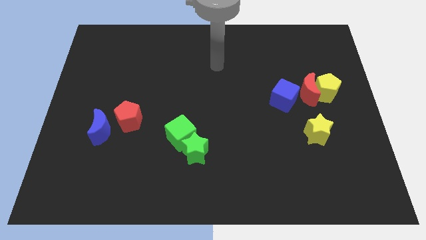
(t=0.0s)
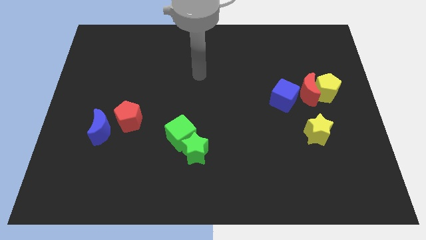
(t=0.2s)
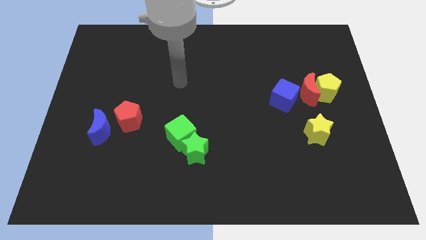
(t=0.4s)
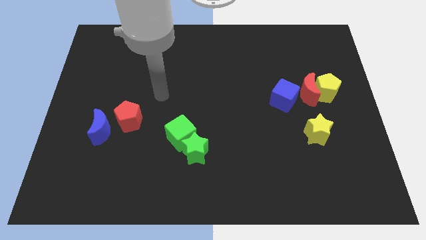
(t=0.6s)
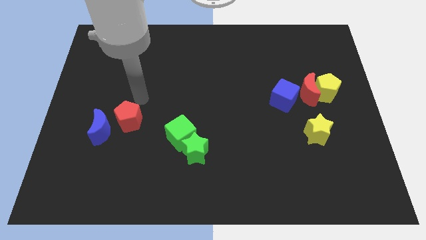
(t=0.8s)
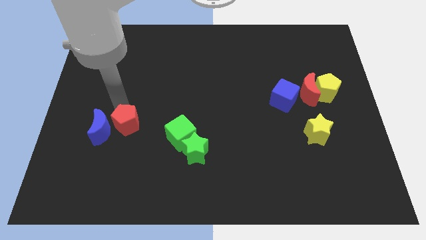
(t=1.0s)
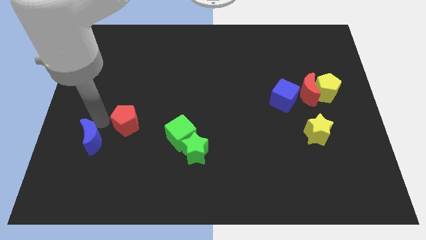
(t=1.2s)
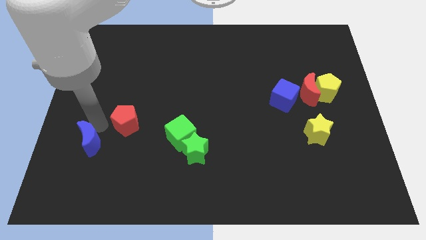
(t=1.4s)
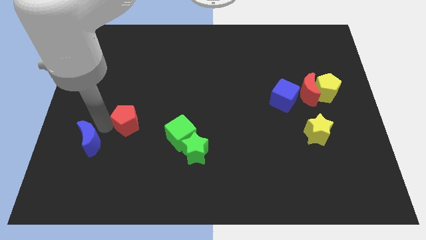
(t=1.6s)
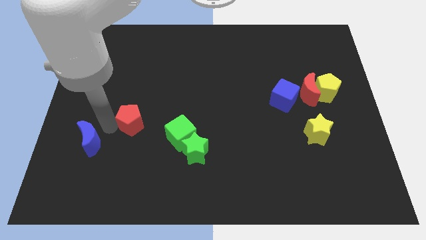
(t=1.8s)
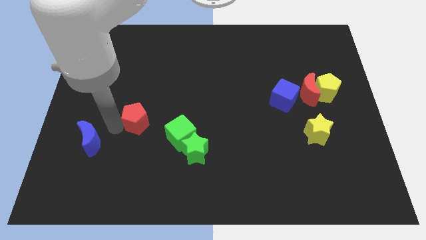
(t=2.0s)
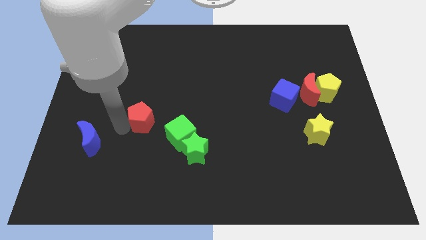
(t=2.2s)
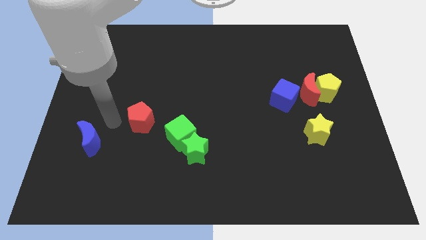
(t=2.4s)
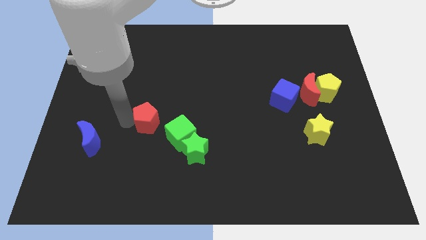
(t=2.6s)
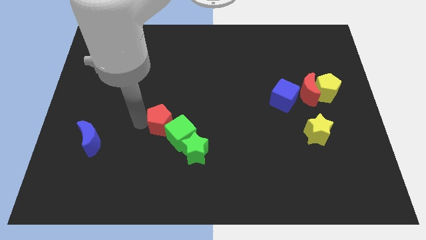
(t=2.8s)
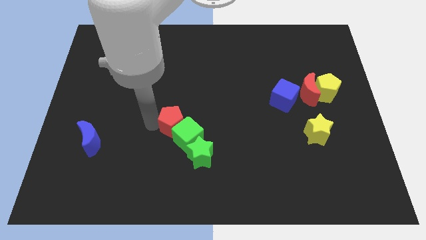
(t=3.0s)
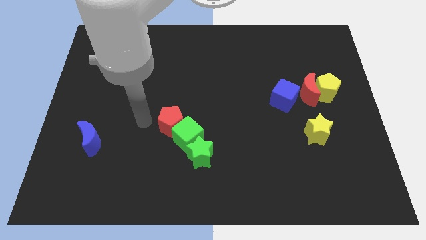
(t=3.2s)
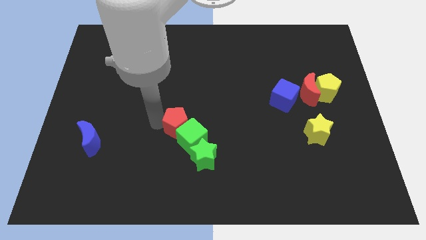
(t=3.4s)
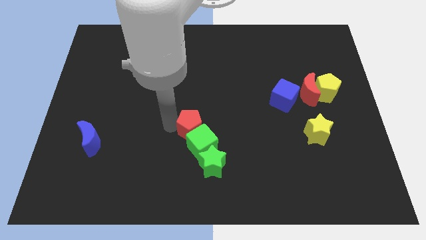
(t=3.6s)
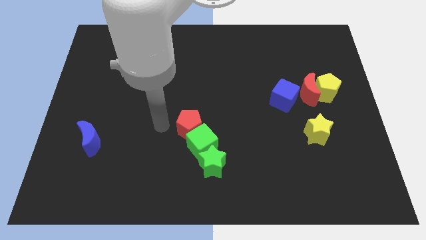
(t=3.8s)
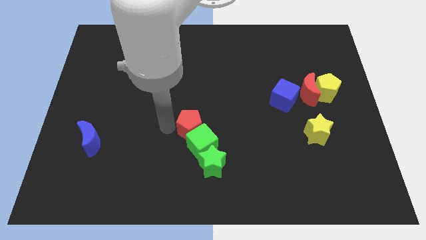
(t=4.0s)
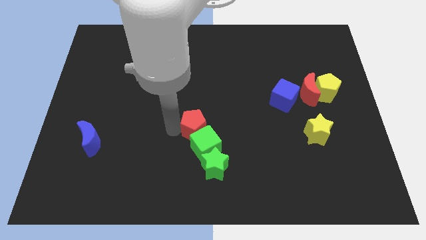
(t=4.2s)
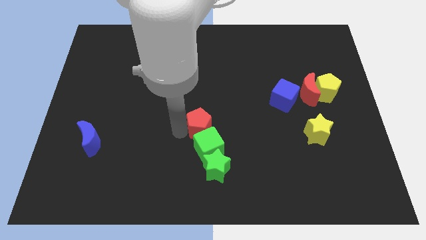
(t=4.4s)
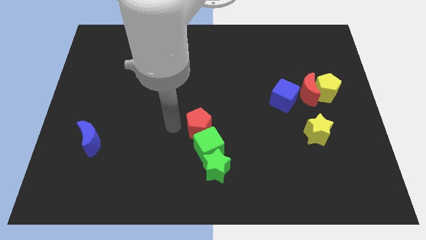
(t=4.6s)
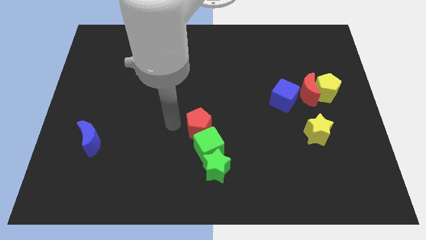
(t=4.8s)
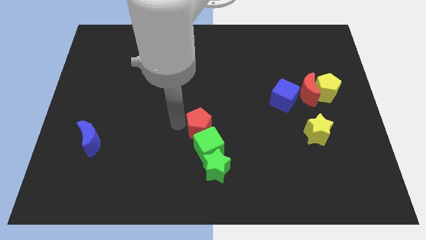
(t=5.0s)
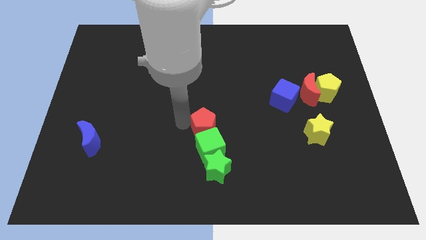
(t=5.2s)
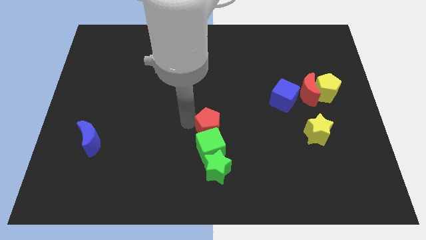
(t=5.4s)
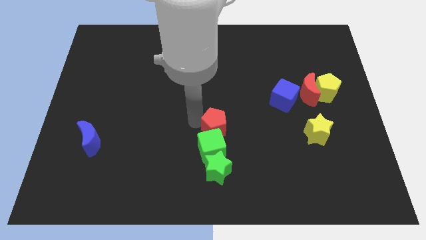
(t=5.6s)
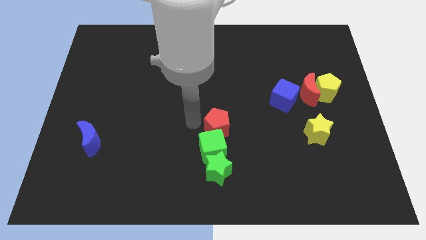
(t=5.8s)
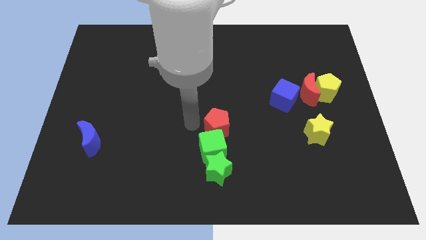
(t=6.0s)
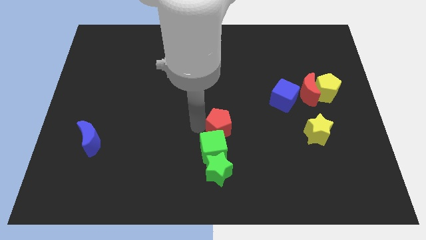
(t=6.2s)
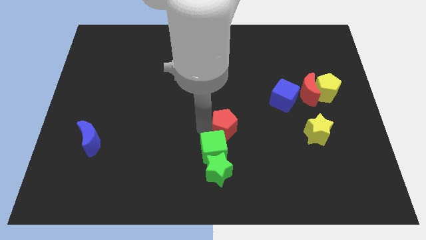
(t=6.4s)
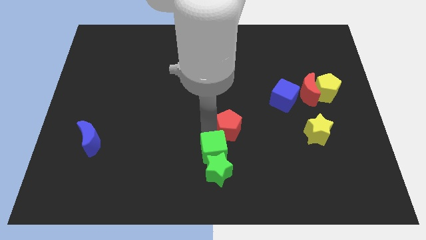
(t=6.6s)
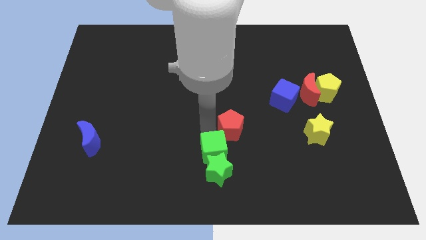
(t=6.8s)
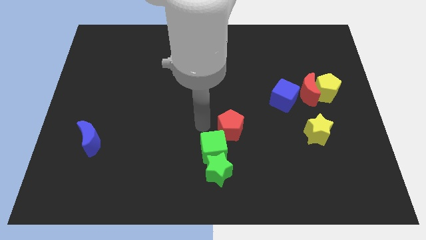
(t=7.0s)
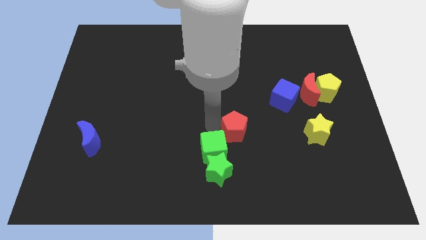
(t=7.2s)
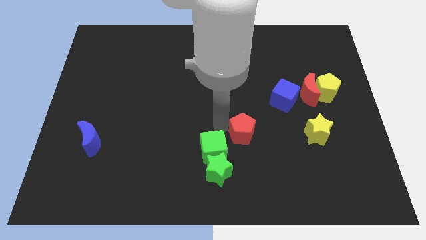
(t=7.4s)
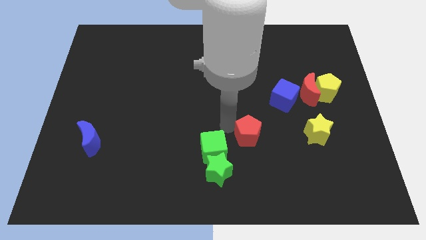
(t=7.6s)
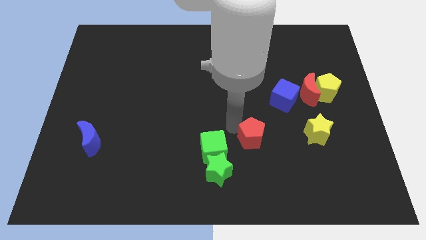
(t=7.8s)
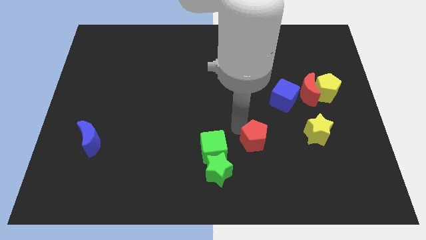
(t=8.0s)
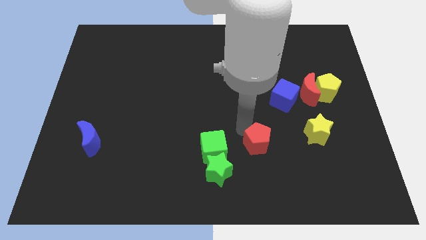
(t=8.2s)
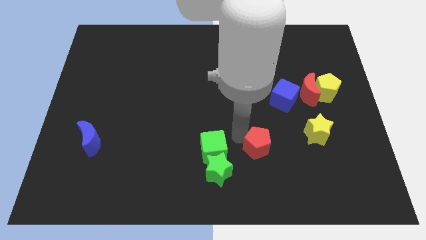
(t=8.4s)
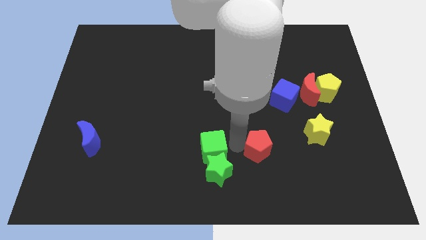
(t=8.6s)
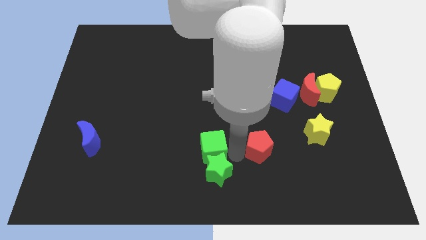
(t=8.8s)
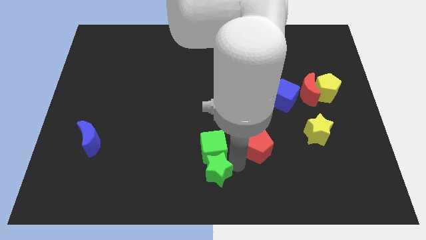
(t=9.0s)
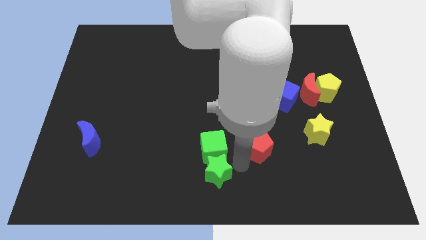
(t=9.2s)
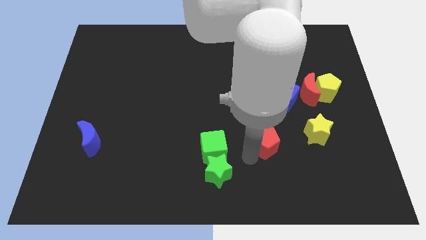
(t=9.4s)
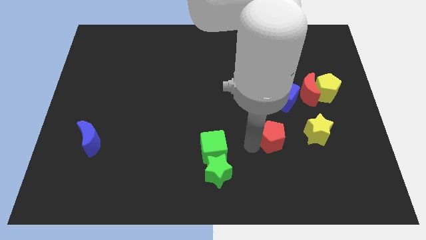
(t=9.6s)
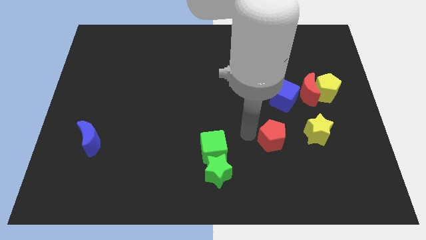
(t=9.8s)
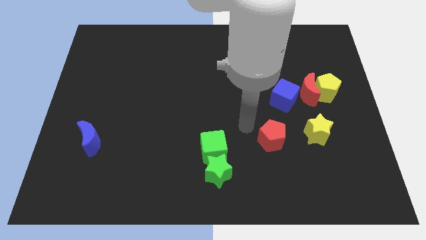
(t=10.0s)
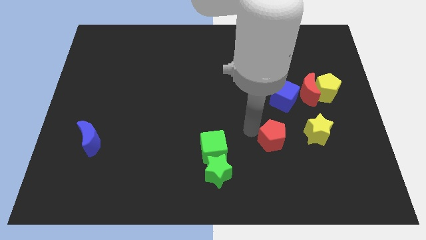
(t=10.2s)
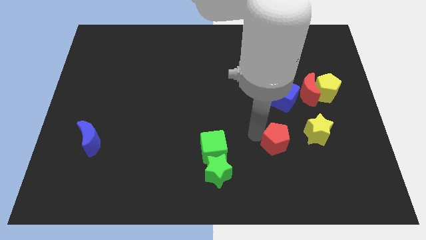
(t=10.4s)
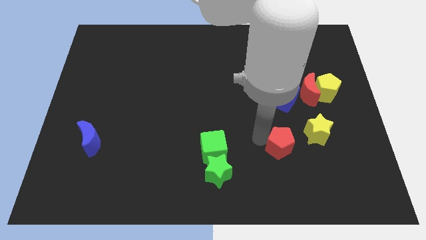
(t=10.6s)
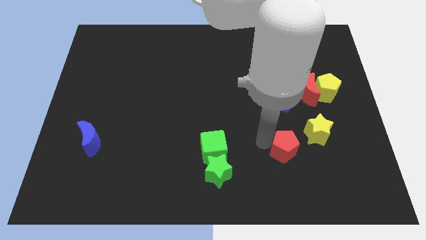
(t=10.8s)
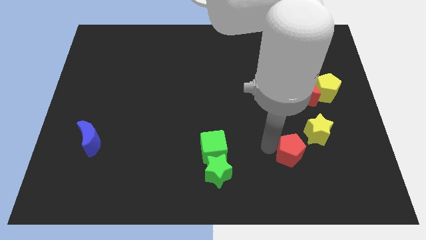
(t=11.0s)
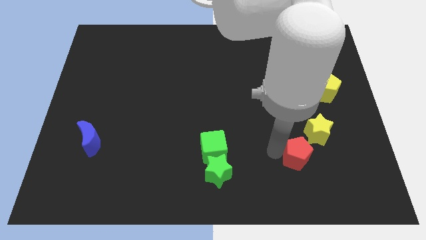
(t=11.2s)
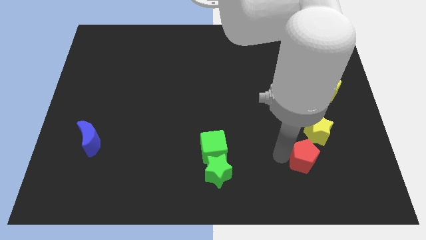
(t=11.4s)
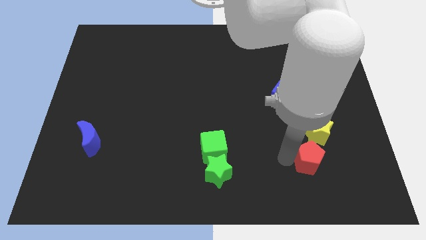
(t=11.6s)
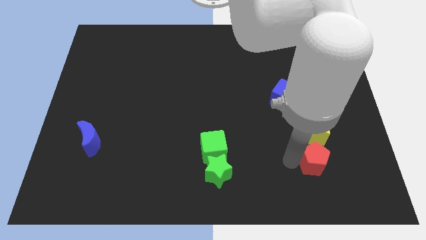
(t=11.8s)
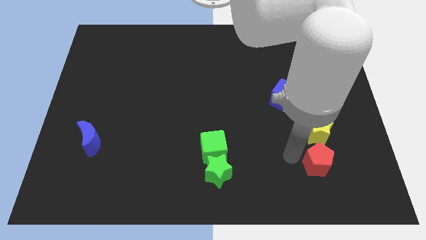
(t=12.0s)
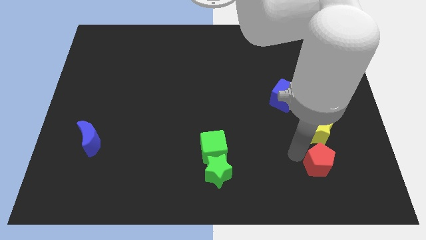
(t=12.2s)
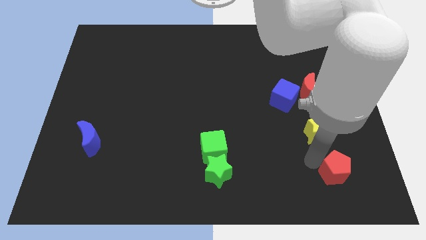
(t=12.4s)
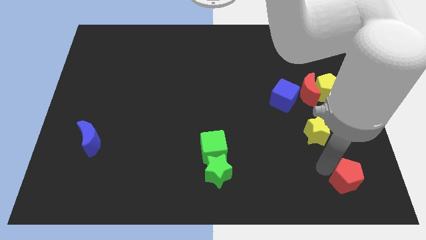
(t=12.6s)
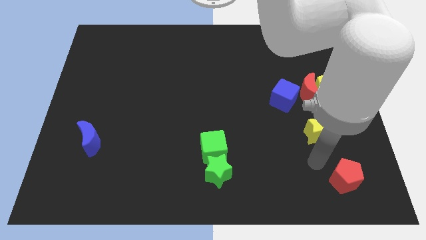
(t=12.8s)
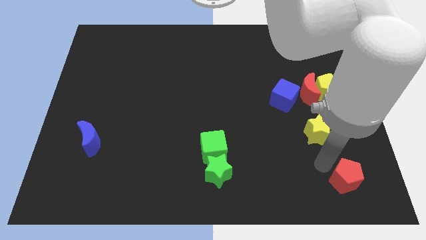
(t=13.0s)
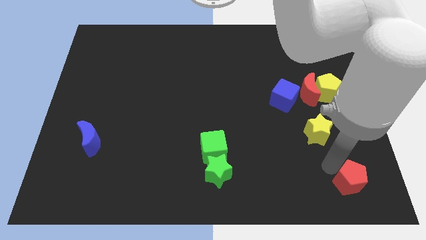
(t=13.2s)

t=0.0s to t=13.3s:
move the red pentagon to the bottom right of the board

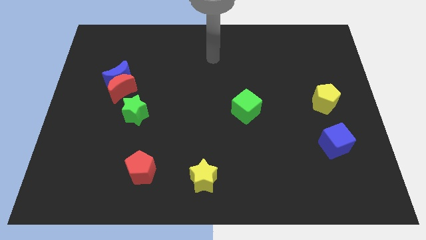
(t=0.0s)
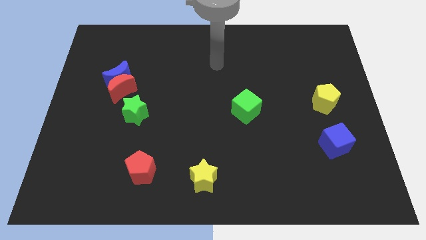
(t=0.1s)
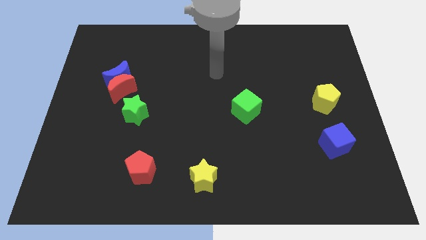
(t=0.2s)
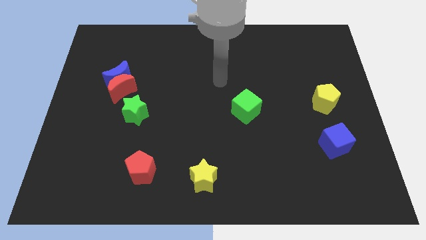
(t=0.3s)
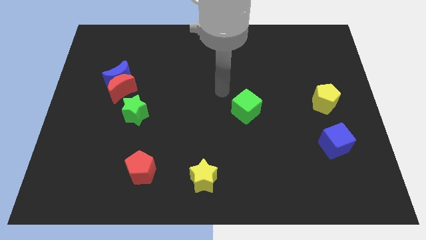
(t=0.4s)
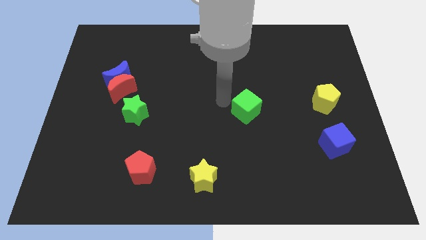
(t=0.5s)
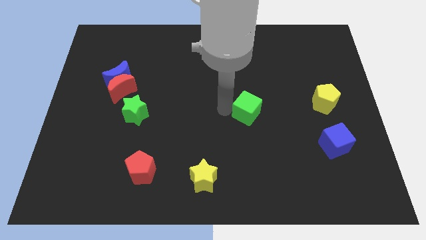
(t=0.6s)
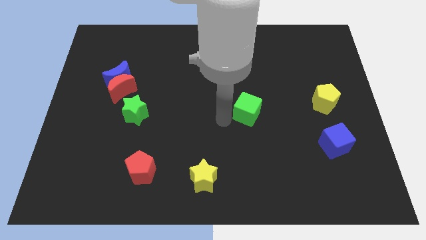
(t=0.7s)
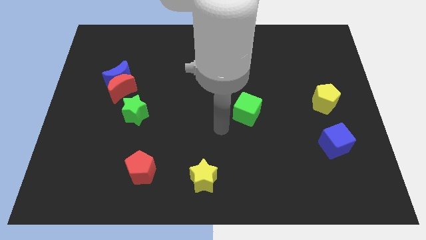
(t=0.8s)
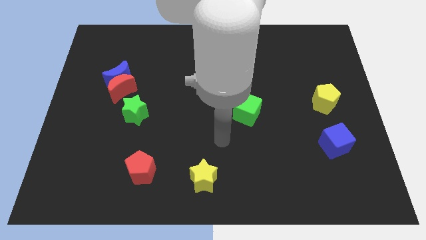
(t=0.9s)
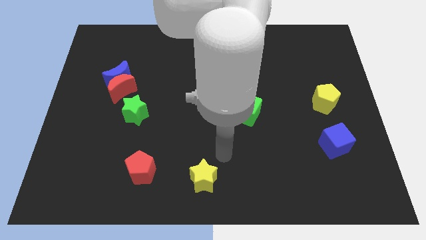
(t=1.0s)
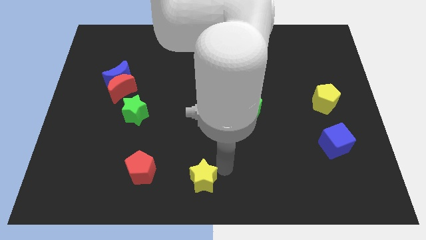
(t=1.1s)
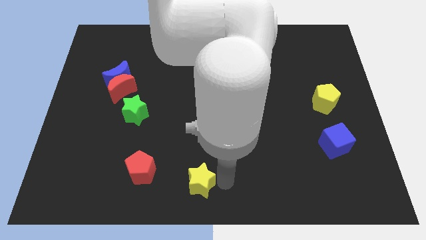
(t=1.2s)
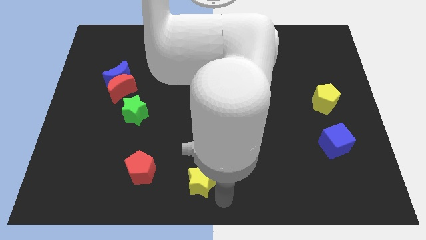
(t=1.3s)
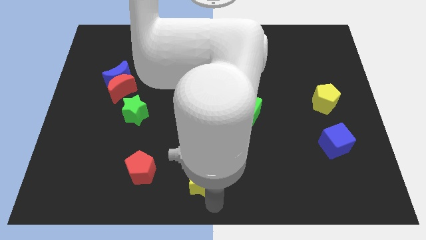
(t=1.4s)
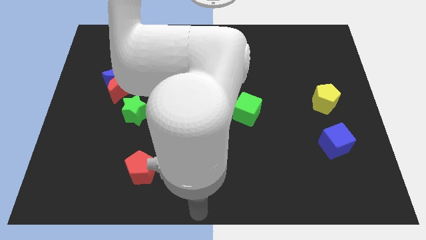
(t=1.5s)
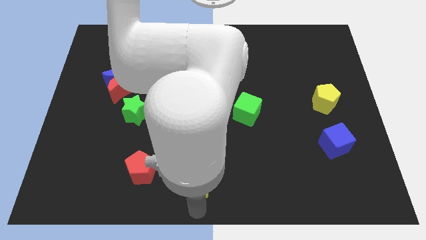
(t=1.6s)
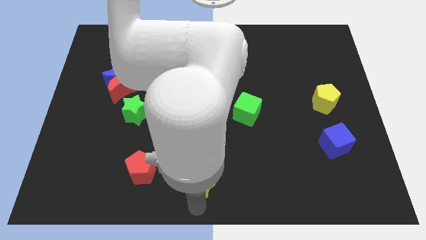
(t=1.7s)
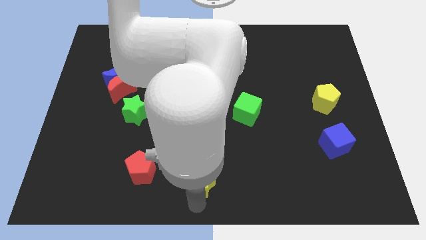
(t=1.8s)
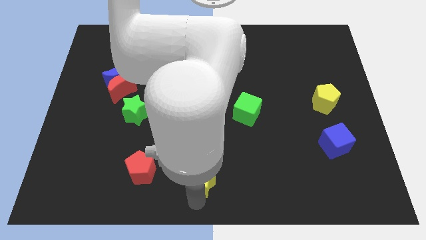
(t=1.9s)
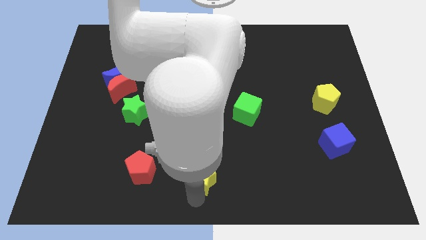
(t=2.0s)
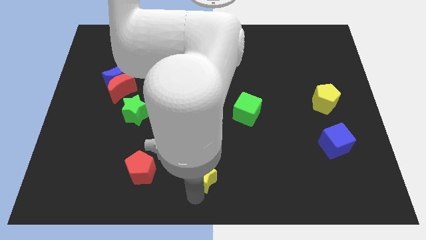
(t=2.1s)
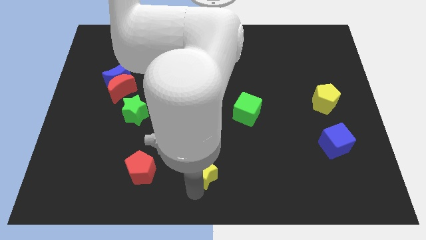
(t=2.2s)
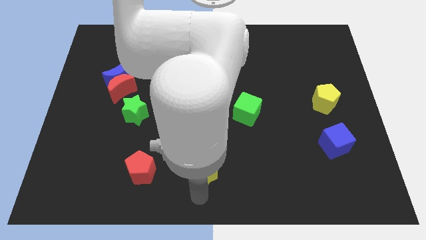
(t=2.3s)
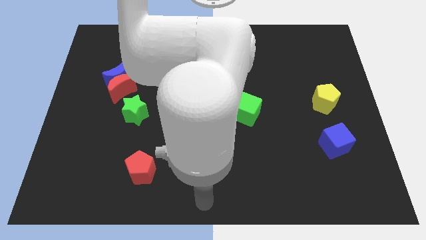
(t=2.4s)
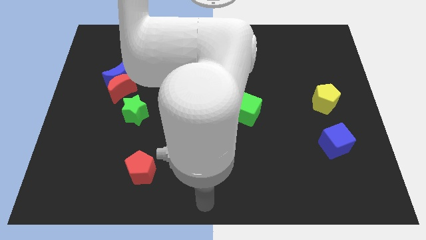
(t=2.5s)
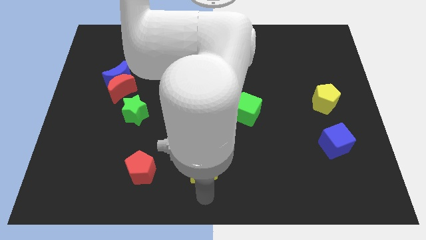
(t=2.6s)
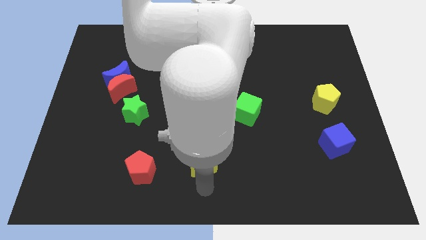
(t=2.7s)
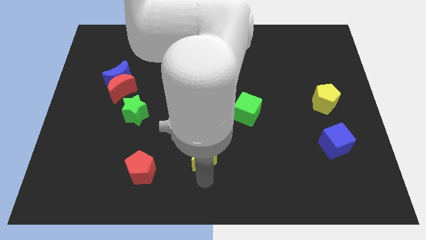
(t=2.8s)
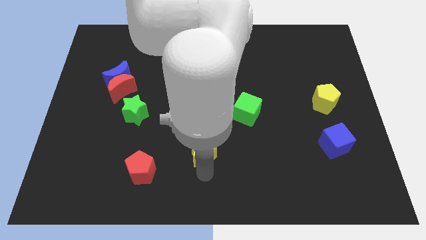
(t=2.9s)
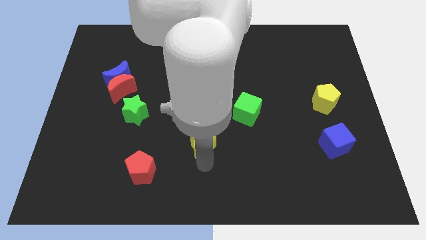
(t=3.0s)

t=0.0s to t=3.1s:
slide the yellow star to the middle
